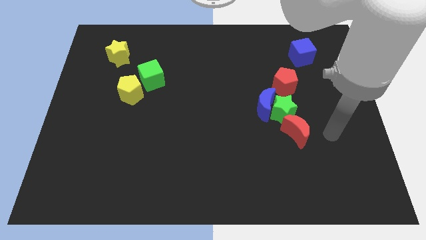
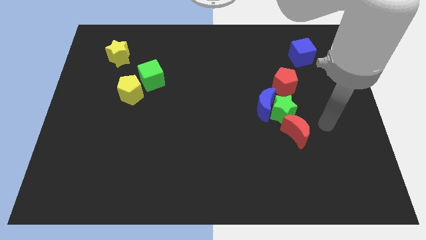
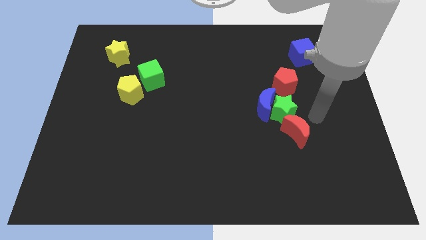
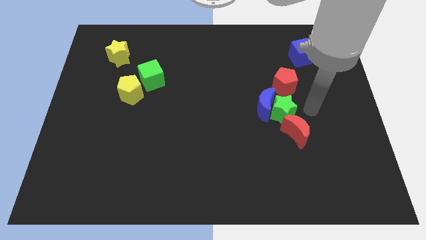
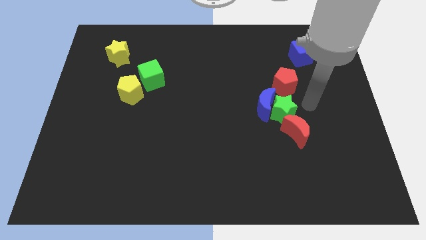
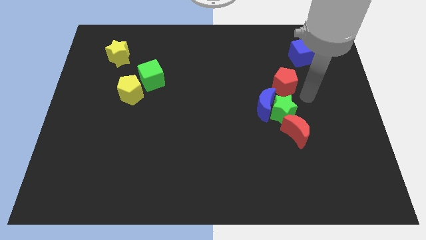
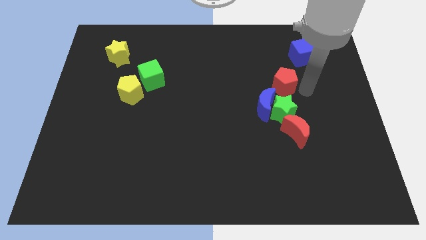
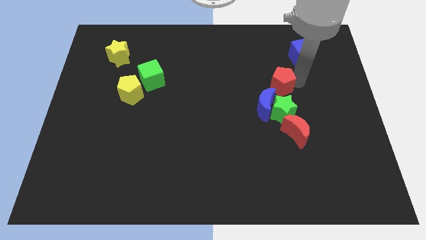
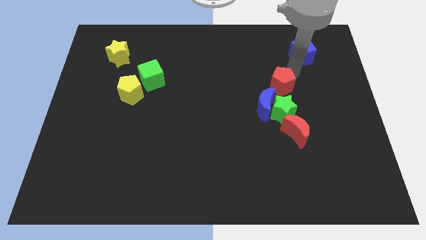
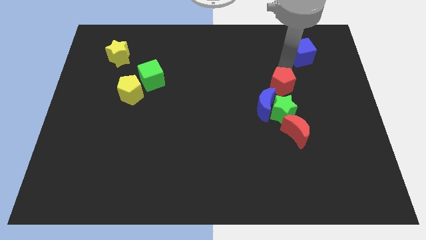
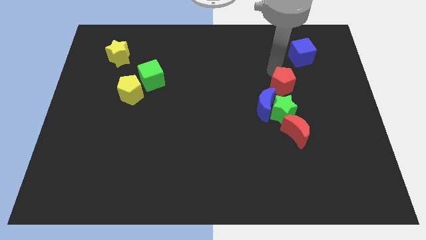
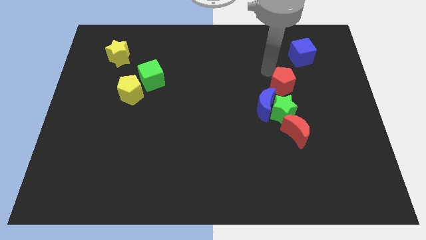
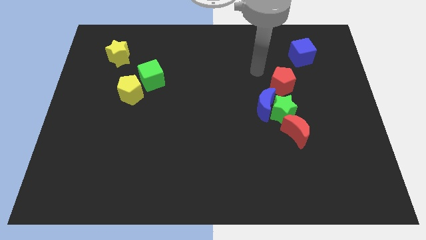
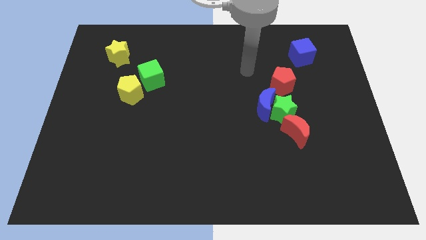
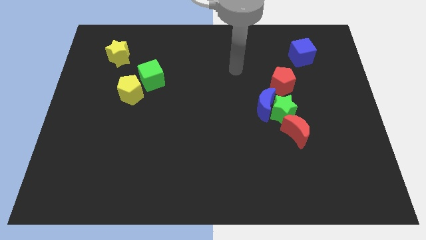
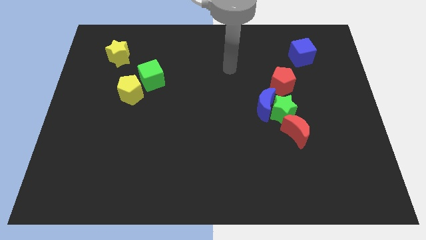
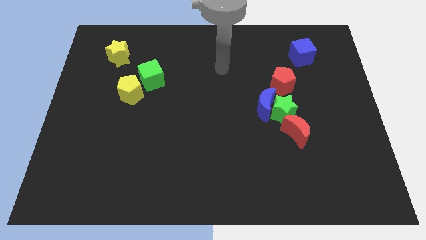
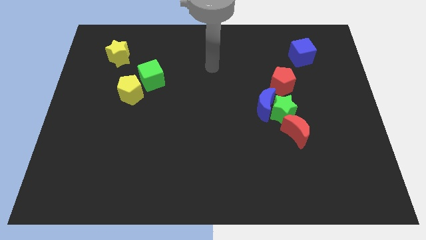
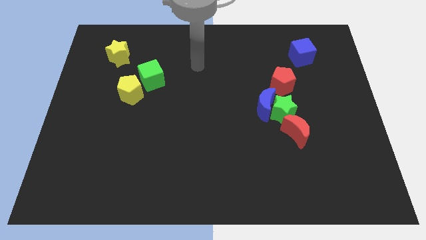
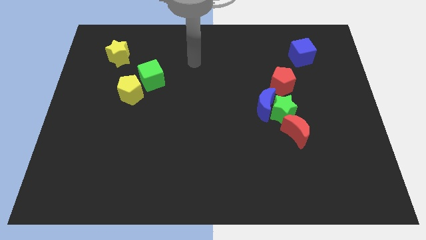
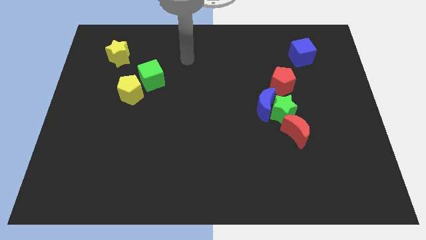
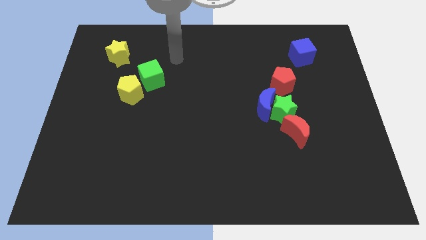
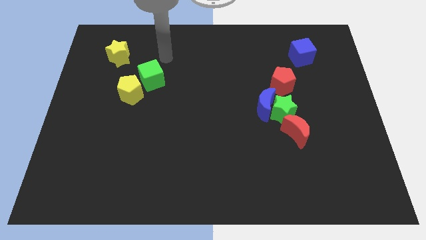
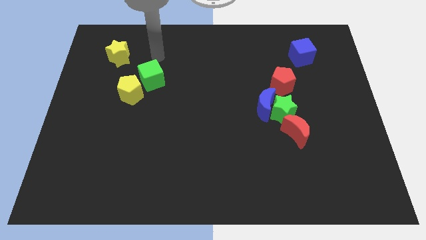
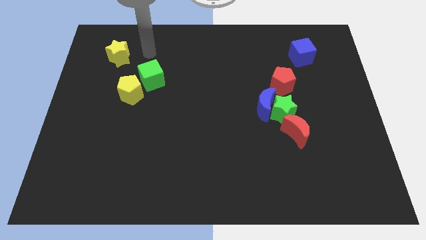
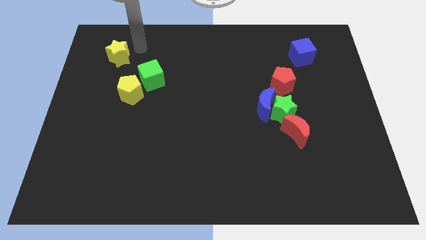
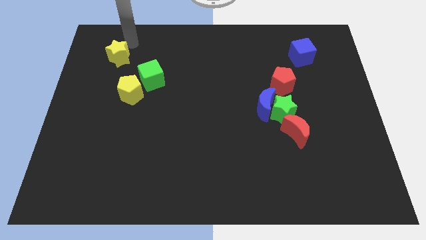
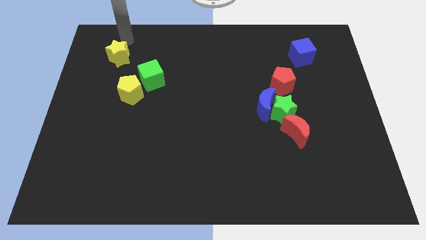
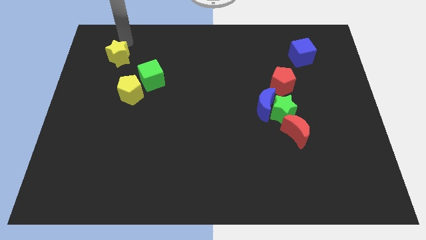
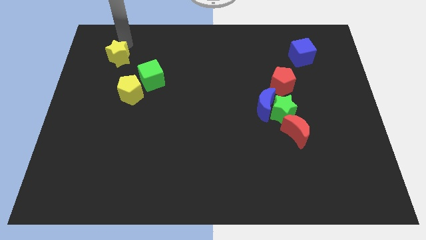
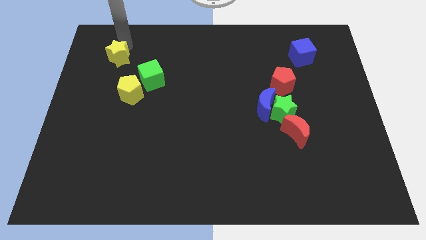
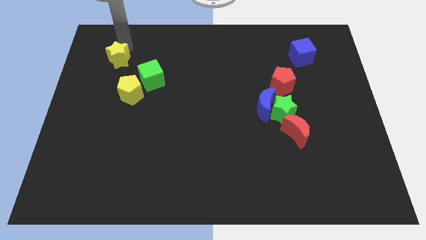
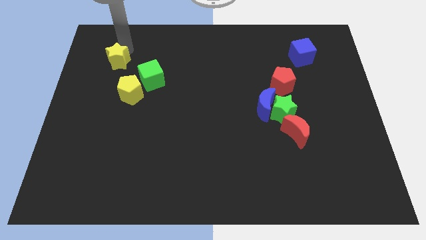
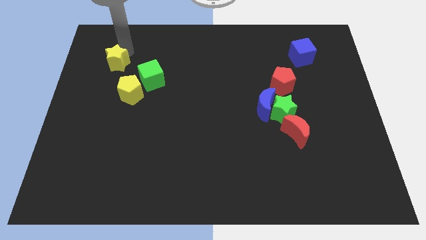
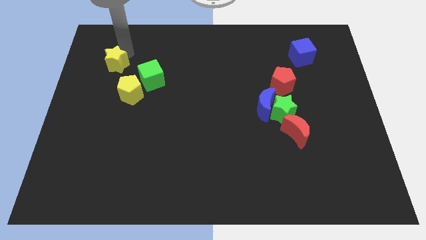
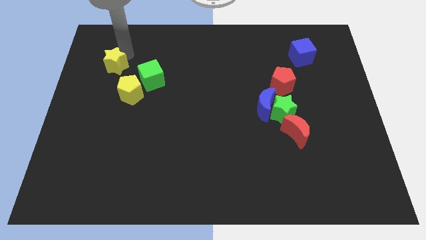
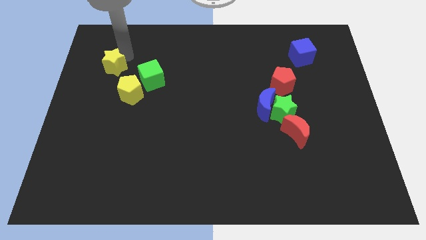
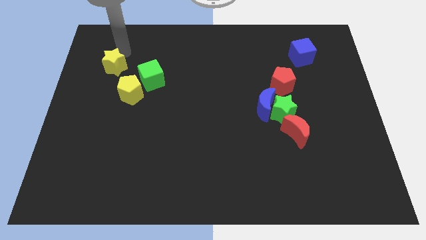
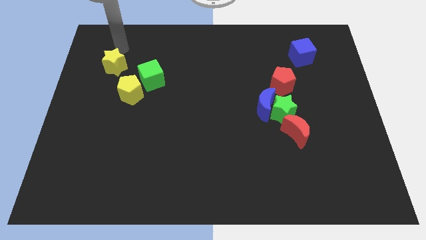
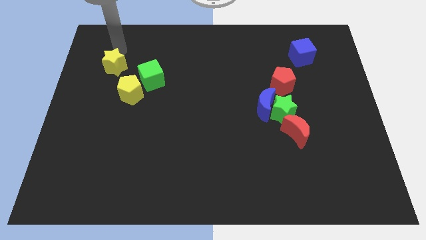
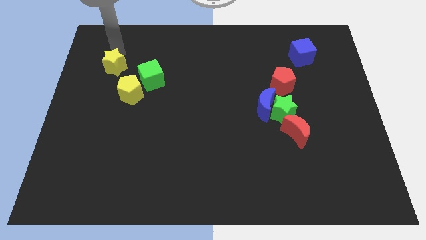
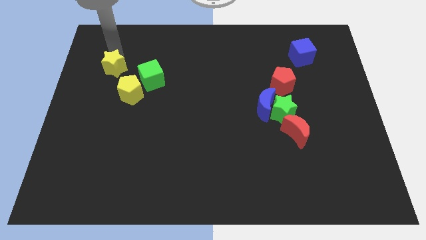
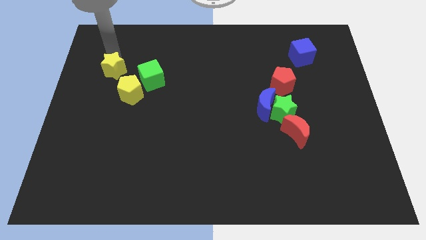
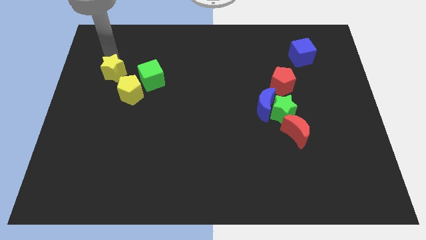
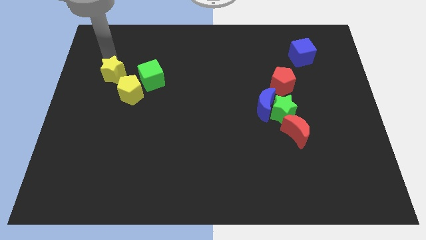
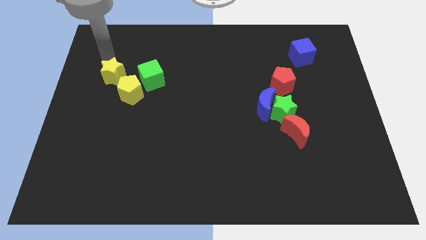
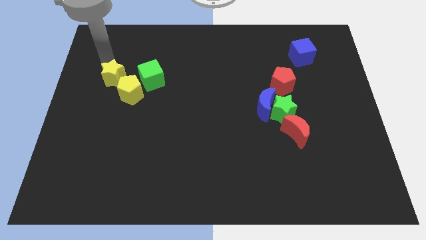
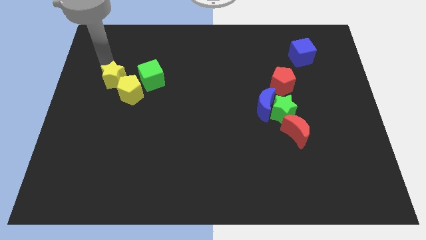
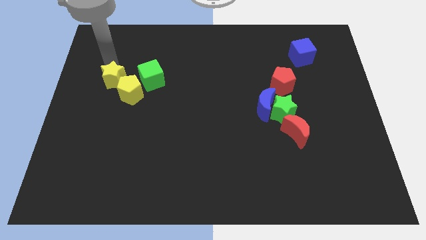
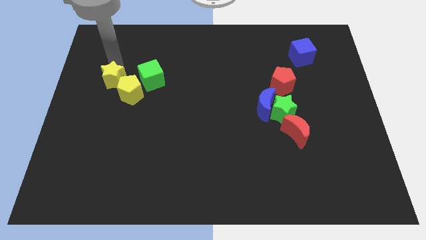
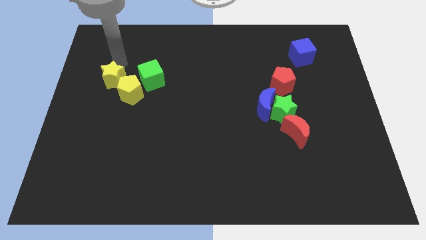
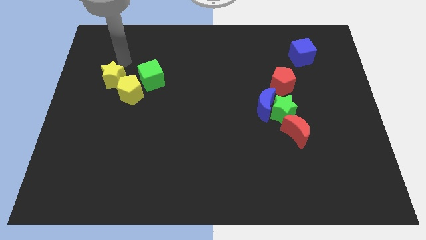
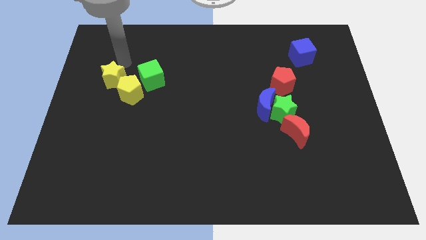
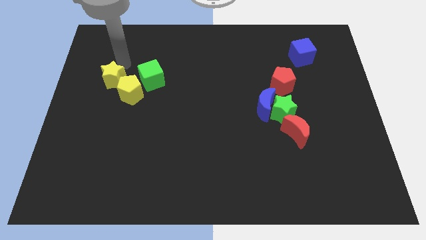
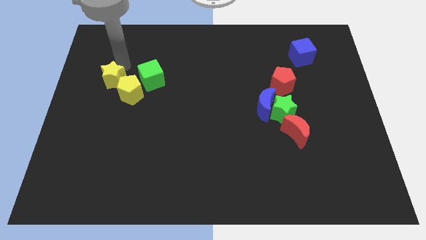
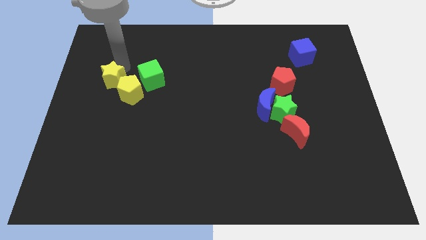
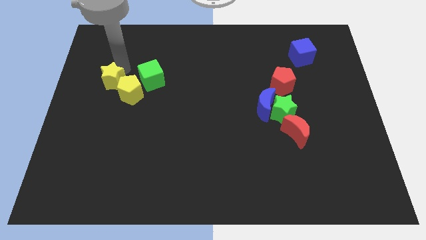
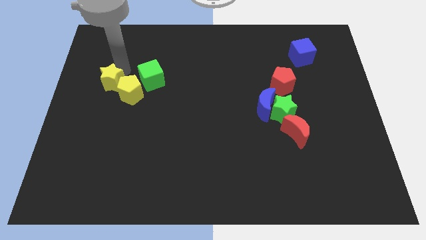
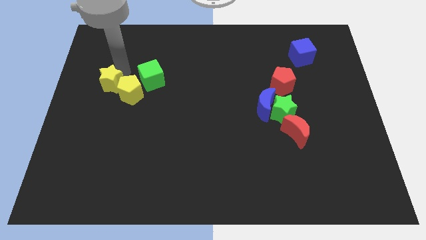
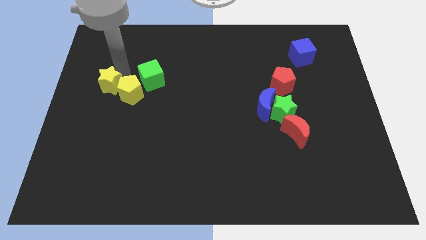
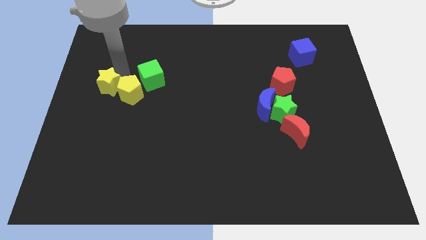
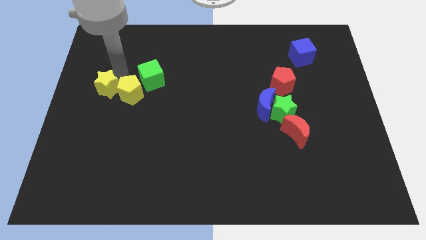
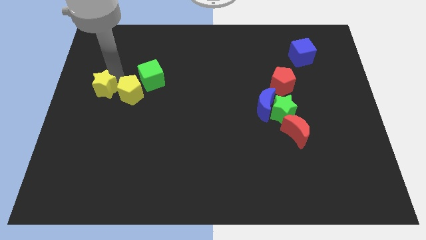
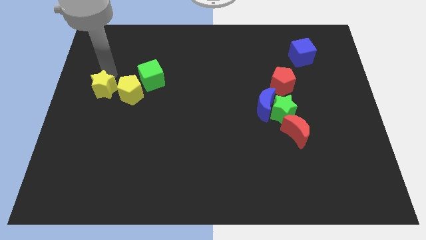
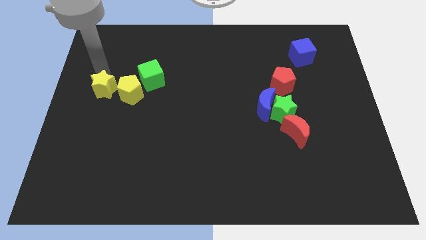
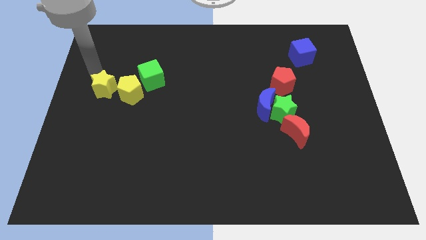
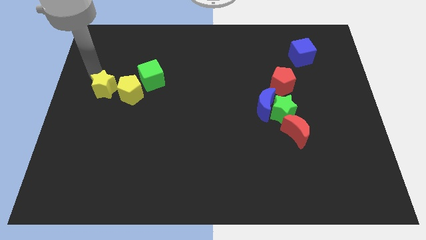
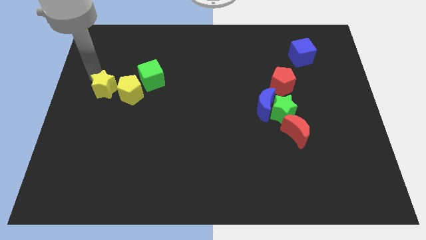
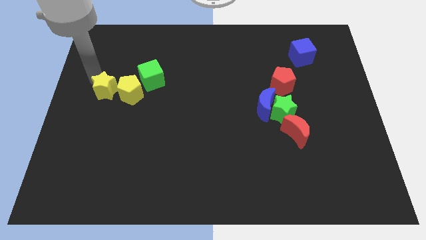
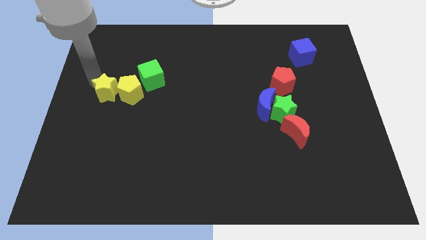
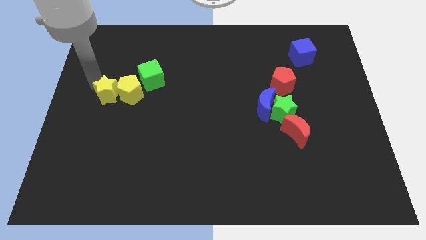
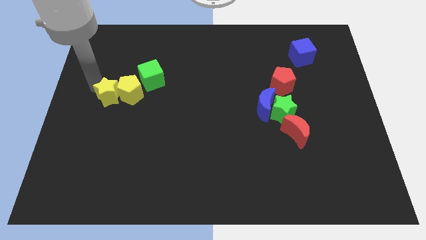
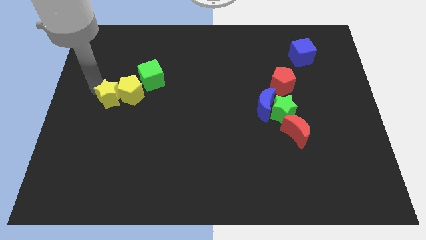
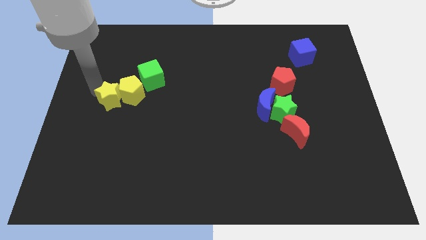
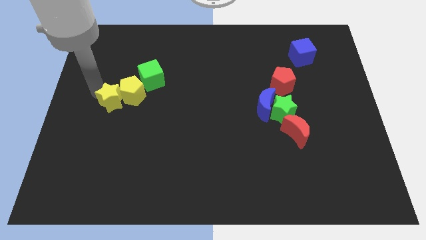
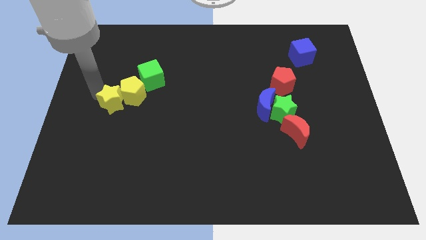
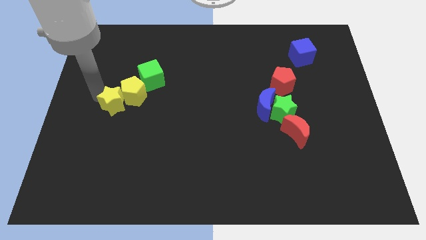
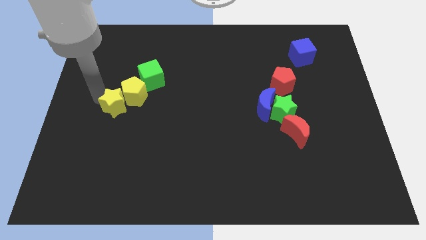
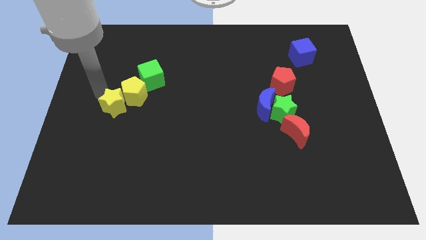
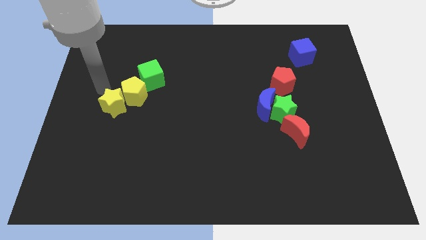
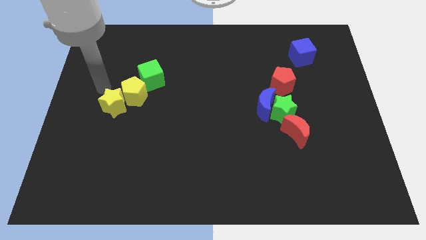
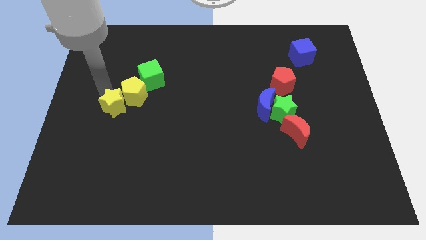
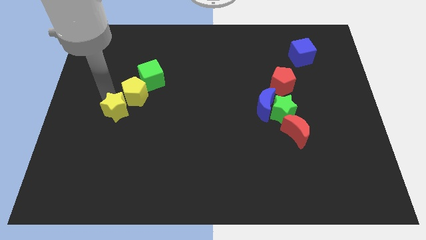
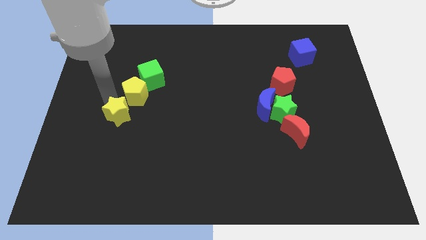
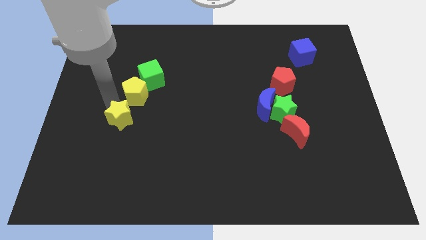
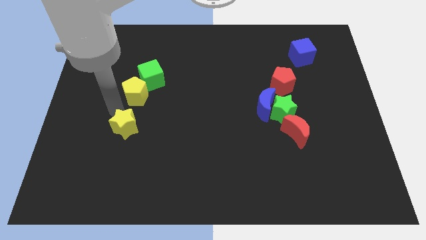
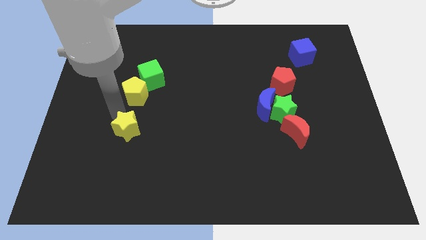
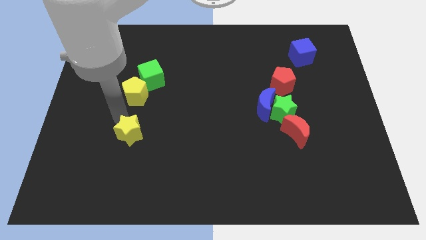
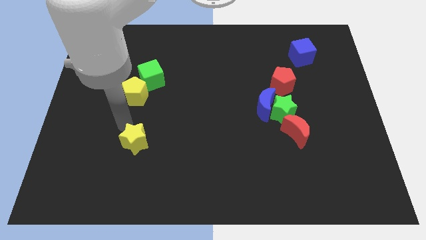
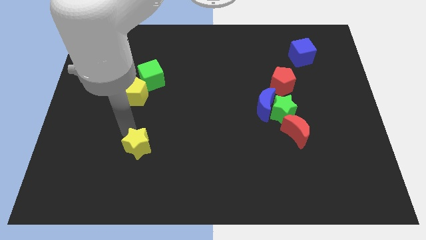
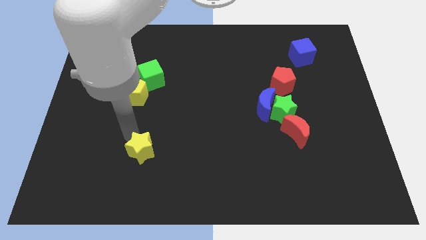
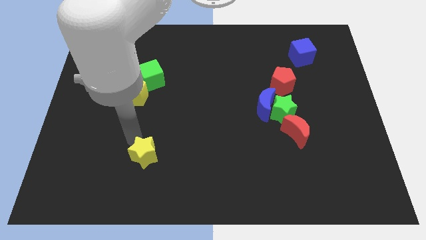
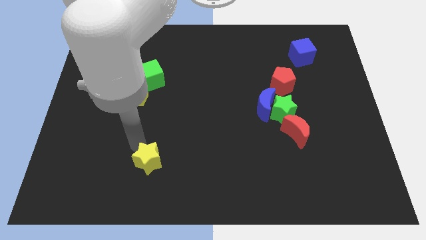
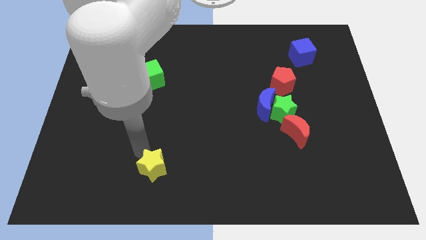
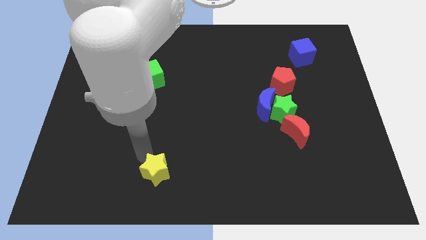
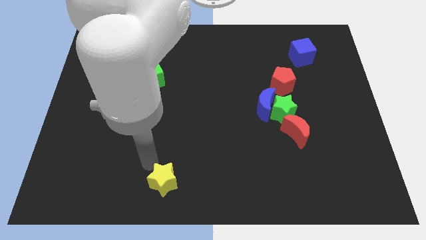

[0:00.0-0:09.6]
push the yellow star to the bottom side
